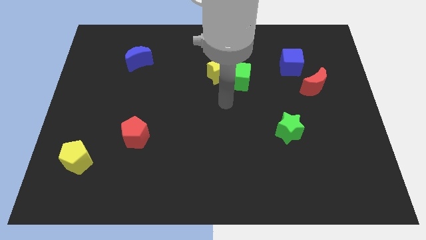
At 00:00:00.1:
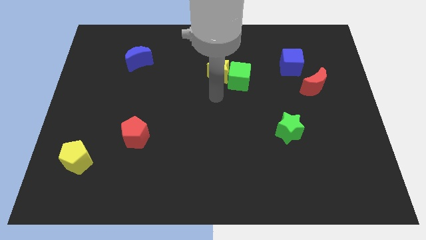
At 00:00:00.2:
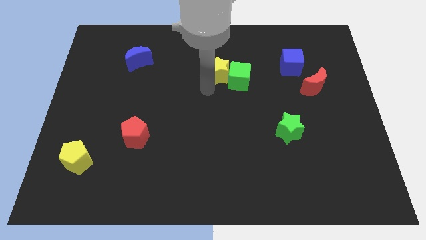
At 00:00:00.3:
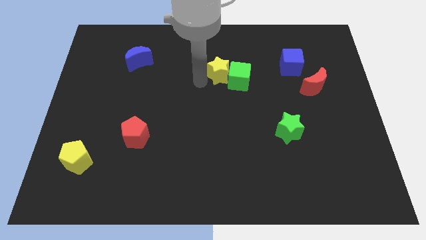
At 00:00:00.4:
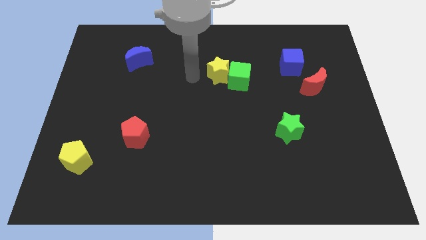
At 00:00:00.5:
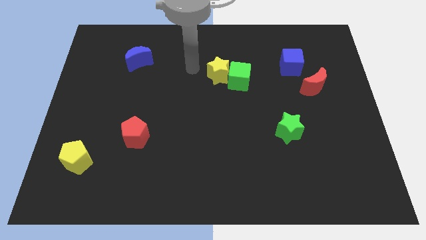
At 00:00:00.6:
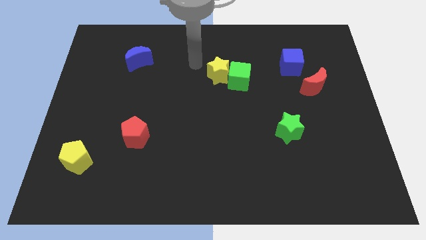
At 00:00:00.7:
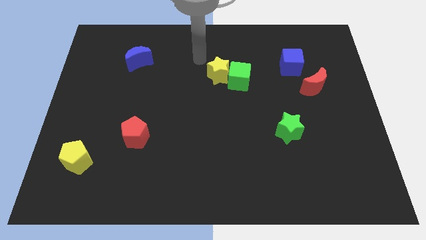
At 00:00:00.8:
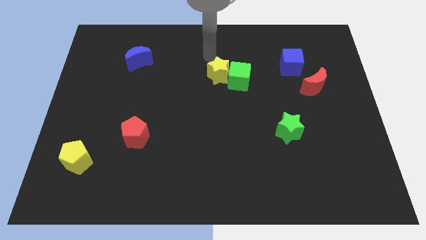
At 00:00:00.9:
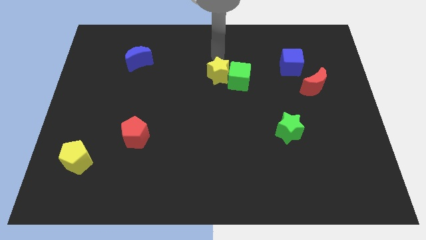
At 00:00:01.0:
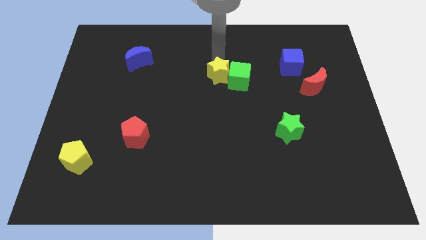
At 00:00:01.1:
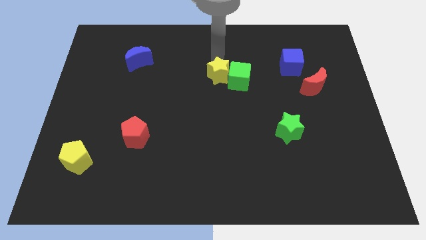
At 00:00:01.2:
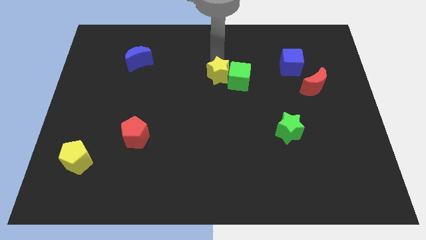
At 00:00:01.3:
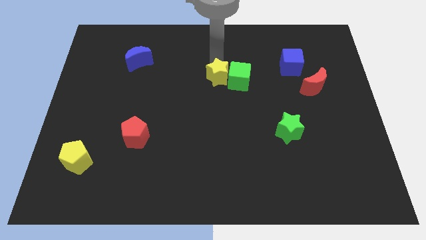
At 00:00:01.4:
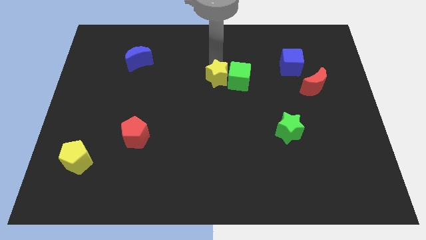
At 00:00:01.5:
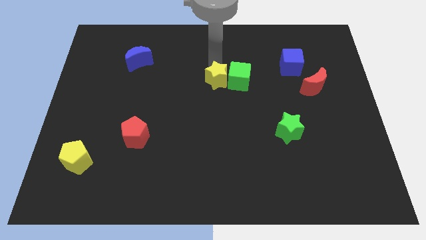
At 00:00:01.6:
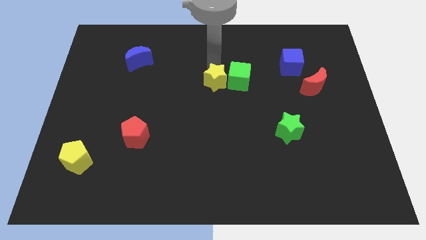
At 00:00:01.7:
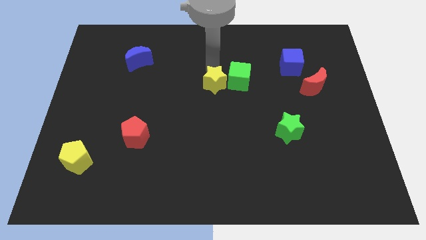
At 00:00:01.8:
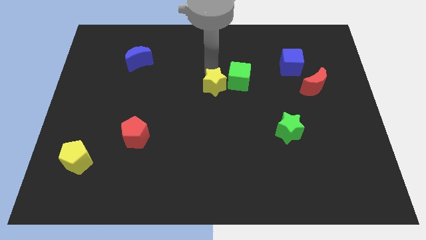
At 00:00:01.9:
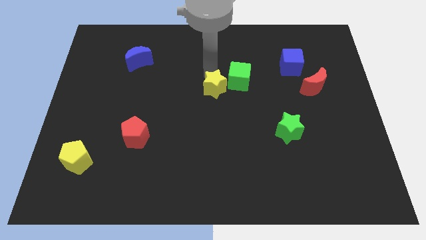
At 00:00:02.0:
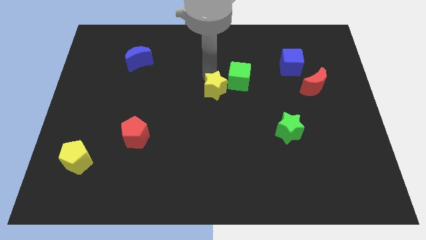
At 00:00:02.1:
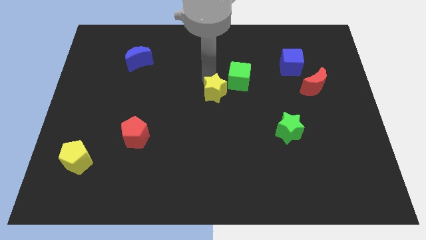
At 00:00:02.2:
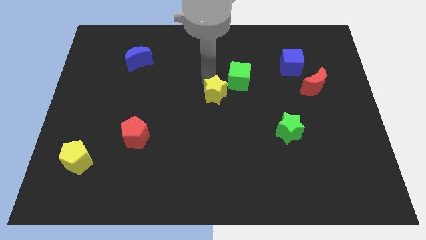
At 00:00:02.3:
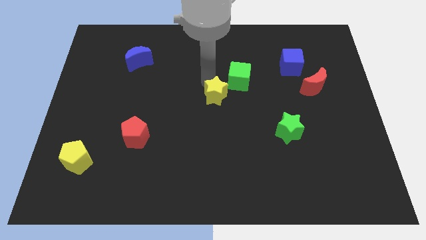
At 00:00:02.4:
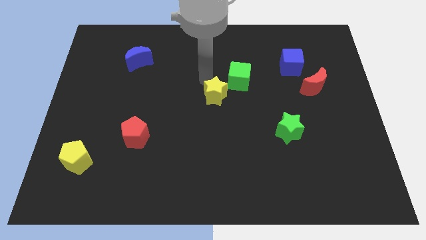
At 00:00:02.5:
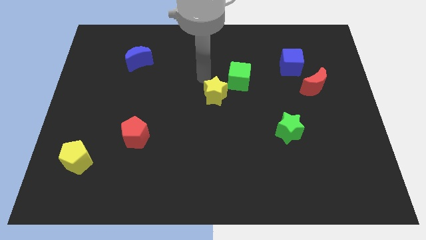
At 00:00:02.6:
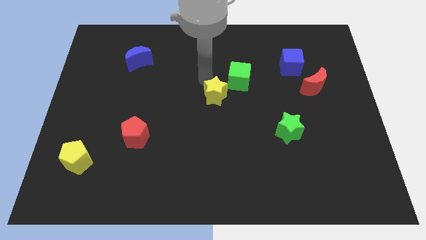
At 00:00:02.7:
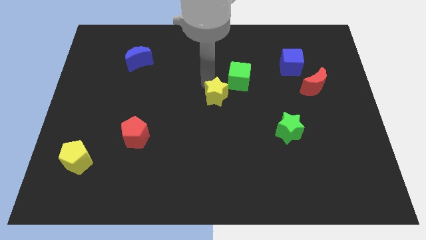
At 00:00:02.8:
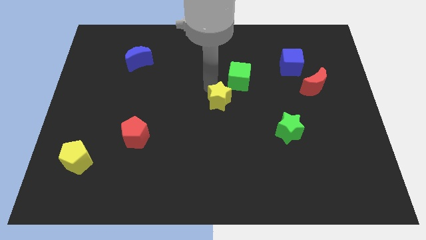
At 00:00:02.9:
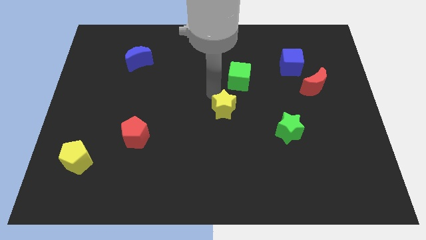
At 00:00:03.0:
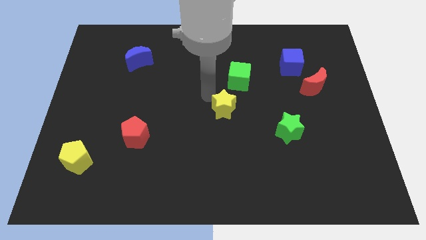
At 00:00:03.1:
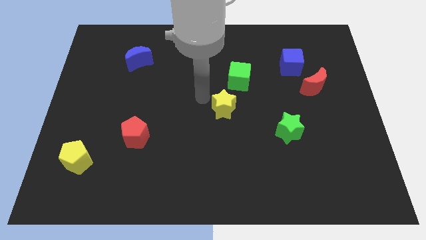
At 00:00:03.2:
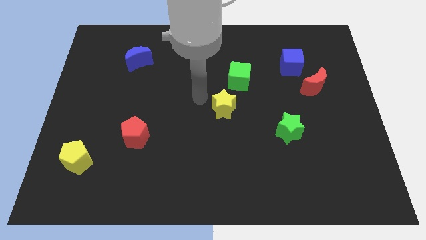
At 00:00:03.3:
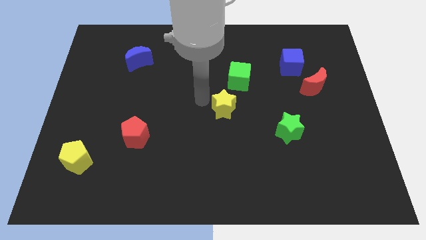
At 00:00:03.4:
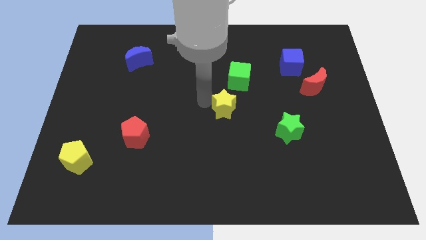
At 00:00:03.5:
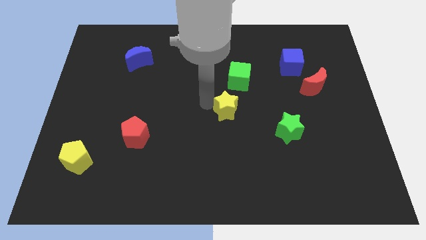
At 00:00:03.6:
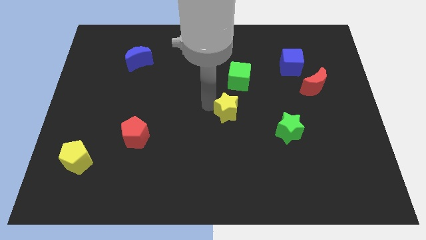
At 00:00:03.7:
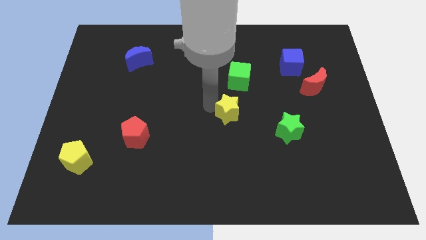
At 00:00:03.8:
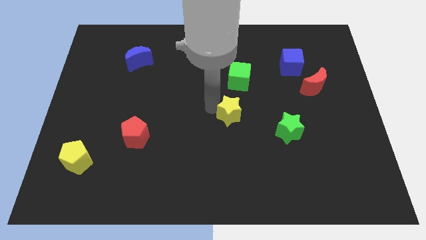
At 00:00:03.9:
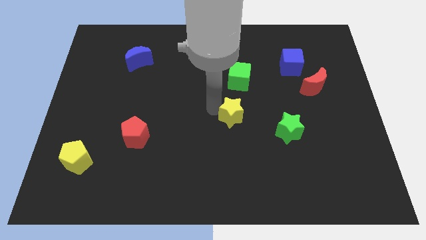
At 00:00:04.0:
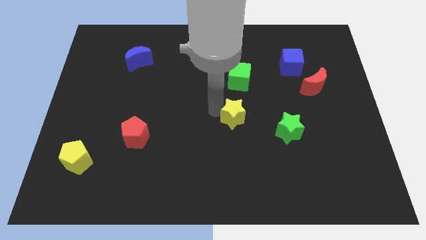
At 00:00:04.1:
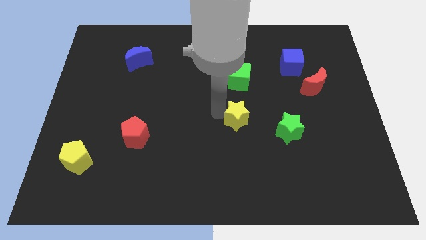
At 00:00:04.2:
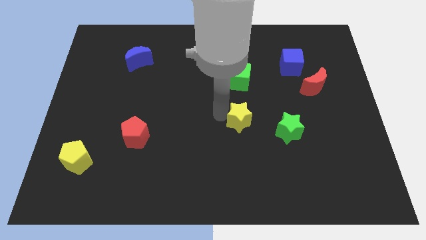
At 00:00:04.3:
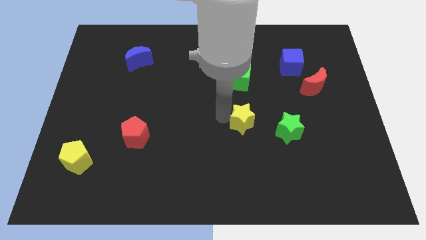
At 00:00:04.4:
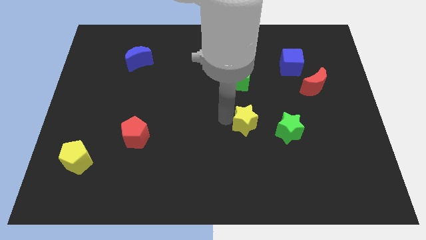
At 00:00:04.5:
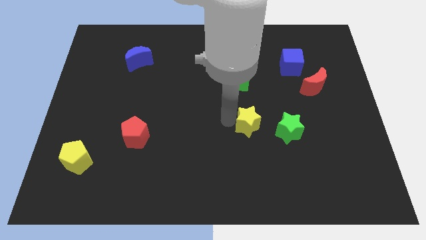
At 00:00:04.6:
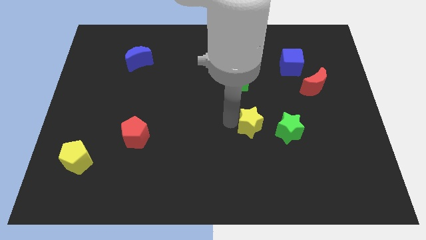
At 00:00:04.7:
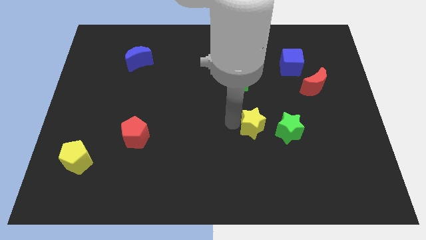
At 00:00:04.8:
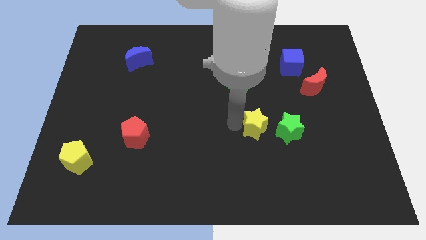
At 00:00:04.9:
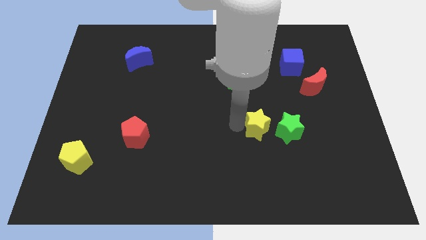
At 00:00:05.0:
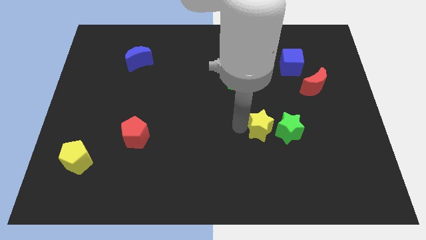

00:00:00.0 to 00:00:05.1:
slide the yellow star close to the green star

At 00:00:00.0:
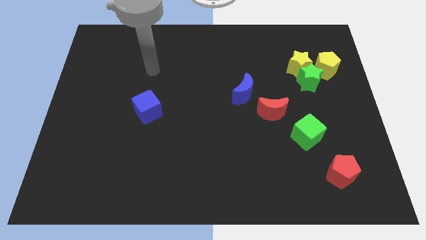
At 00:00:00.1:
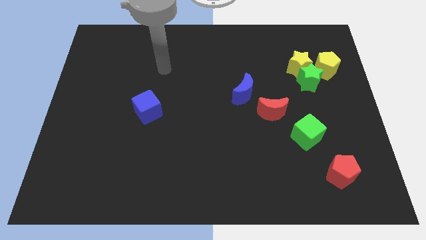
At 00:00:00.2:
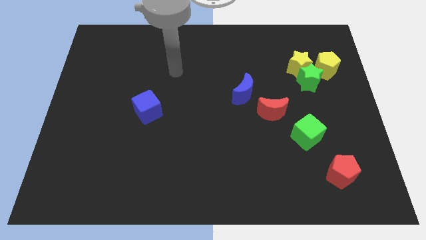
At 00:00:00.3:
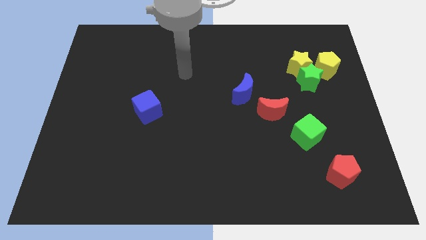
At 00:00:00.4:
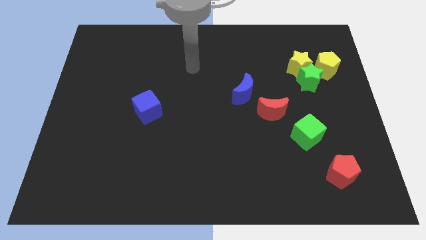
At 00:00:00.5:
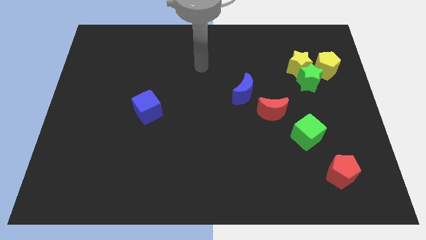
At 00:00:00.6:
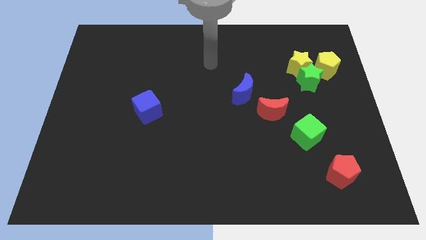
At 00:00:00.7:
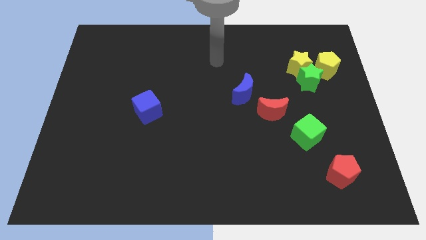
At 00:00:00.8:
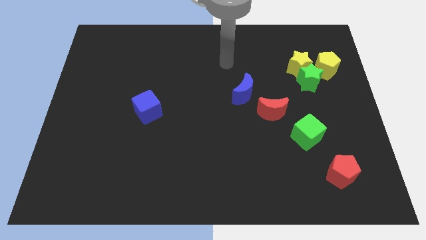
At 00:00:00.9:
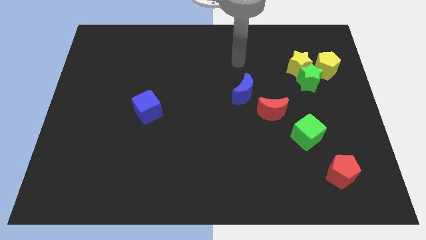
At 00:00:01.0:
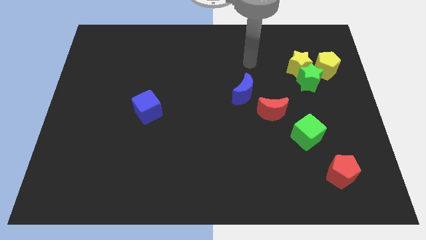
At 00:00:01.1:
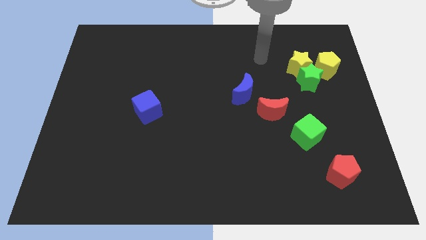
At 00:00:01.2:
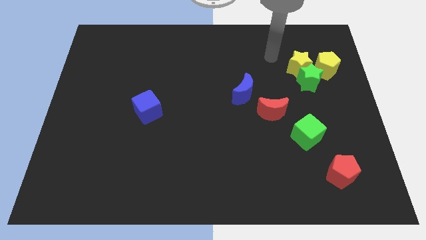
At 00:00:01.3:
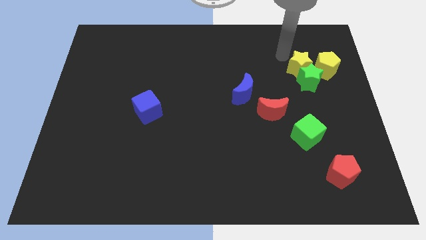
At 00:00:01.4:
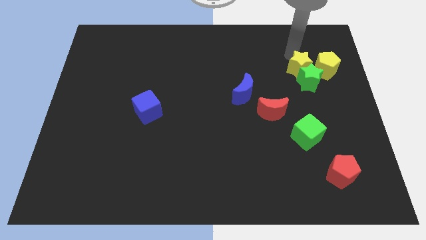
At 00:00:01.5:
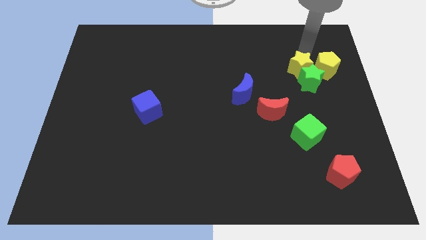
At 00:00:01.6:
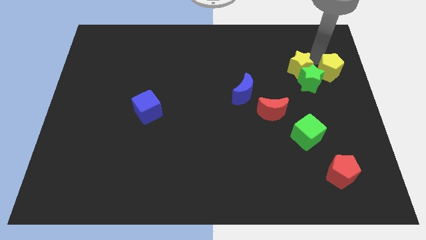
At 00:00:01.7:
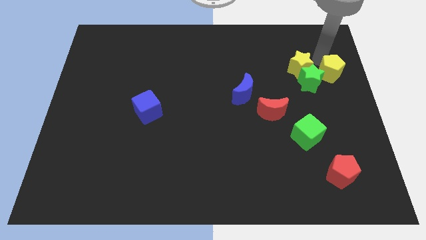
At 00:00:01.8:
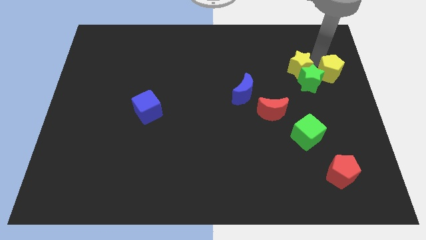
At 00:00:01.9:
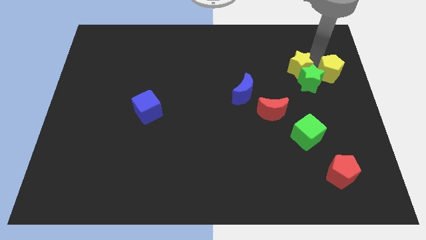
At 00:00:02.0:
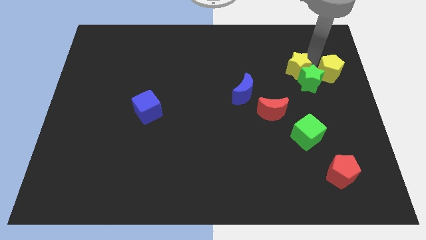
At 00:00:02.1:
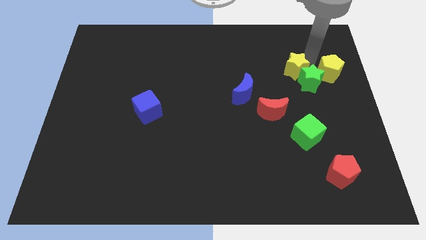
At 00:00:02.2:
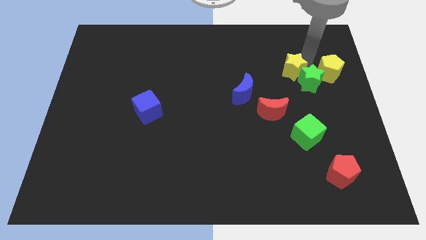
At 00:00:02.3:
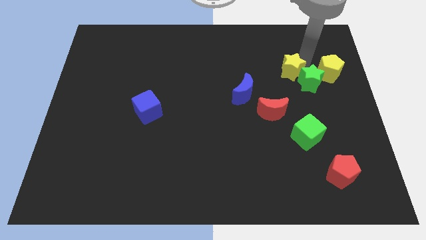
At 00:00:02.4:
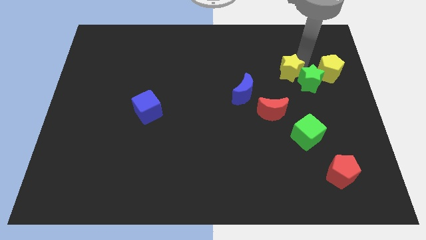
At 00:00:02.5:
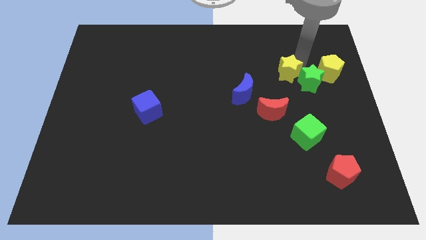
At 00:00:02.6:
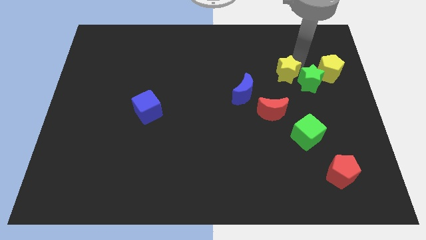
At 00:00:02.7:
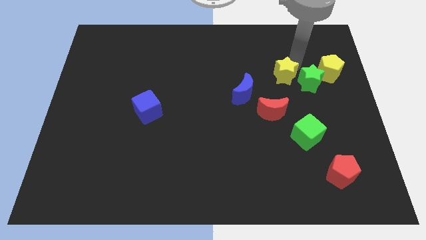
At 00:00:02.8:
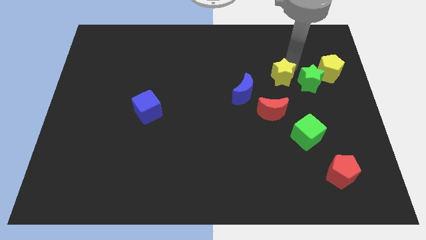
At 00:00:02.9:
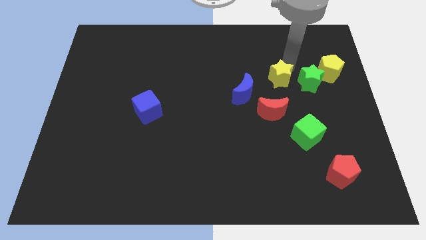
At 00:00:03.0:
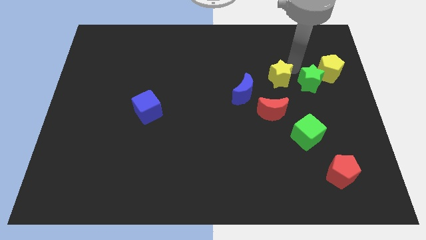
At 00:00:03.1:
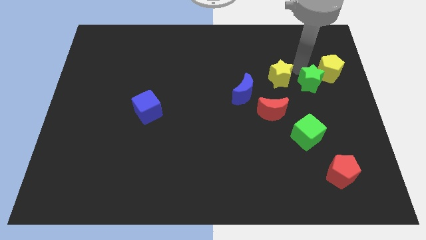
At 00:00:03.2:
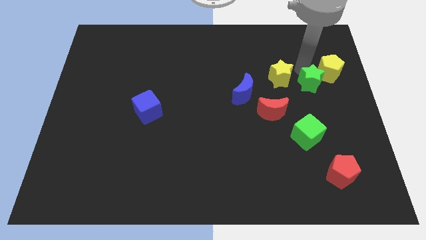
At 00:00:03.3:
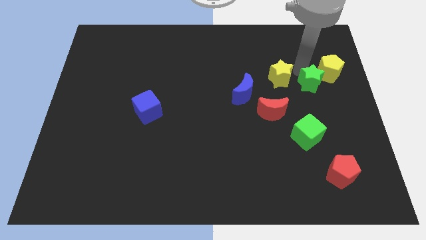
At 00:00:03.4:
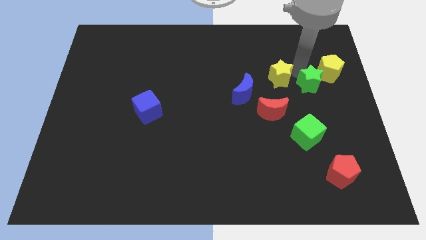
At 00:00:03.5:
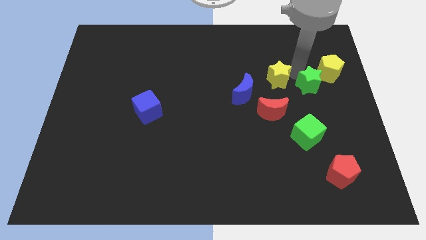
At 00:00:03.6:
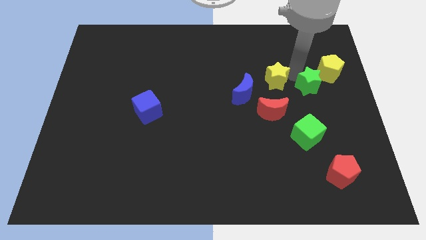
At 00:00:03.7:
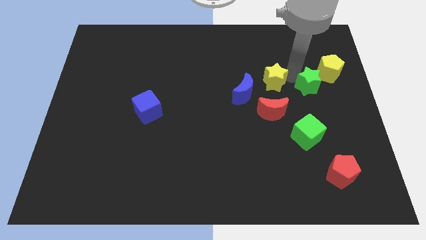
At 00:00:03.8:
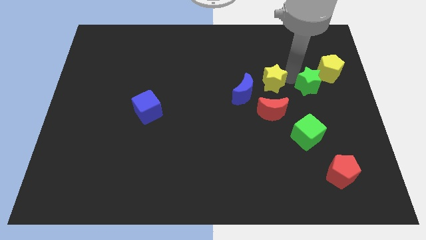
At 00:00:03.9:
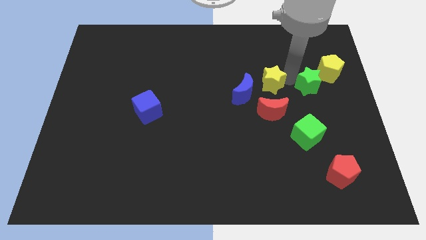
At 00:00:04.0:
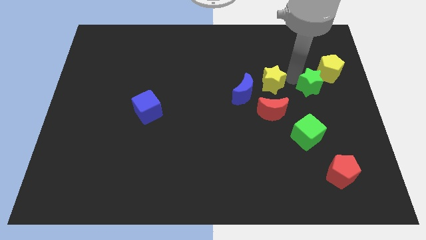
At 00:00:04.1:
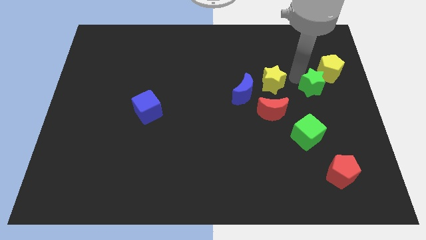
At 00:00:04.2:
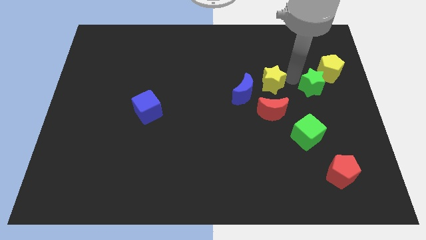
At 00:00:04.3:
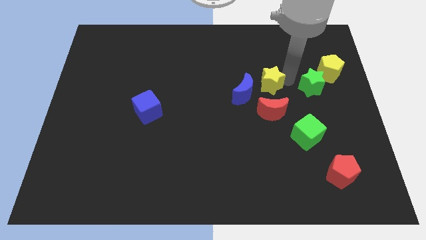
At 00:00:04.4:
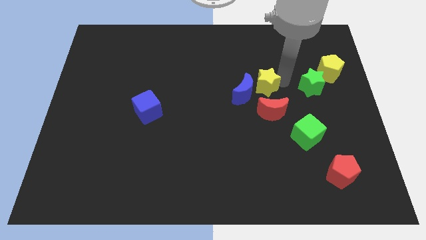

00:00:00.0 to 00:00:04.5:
put the yellow star next to the blue moon
